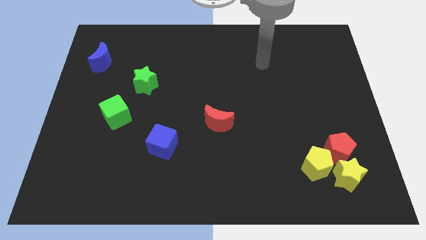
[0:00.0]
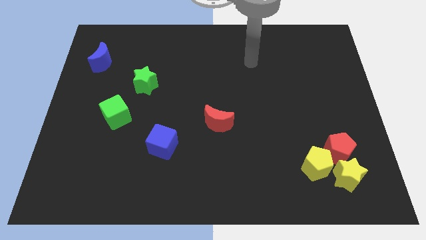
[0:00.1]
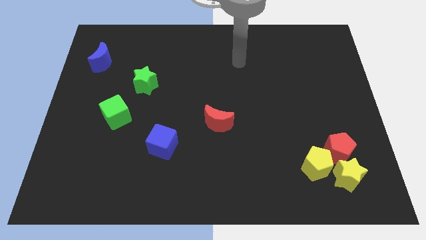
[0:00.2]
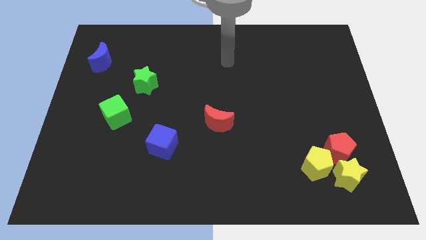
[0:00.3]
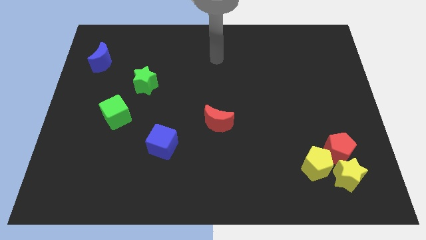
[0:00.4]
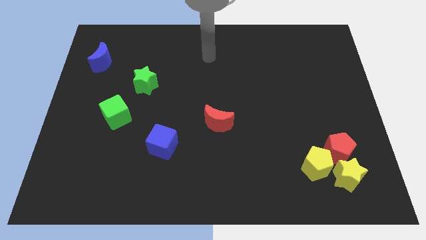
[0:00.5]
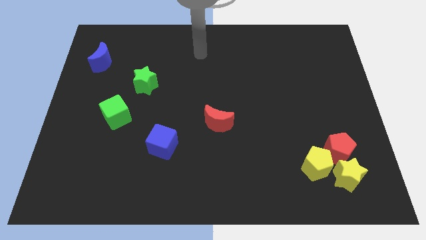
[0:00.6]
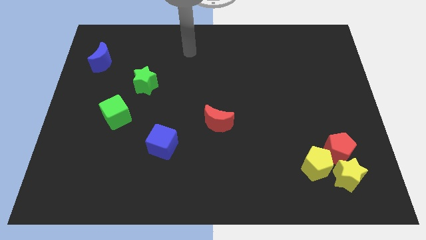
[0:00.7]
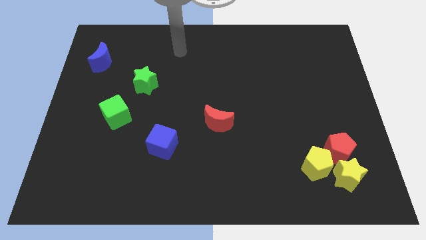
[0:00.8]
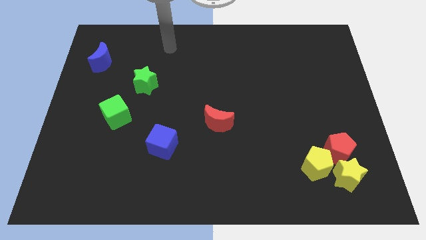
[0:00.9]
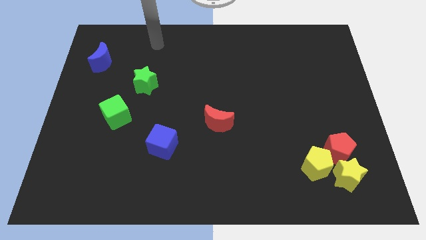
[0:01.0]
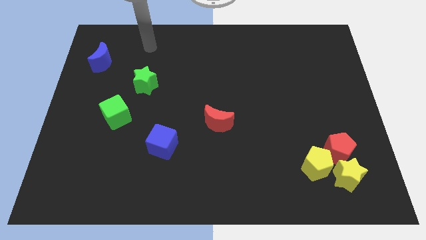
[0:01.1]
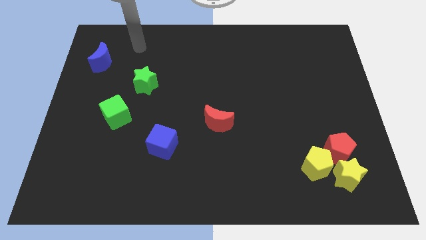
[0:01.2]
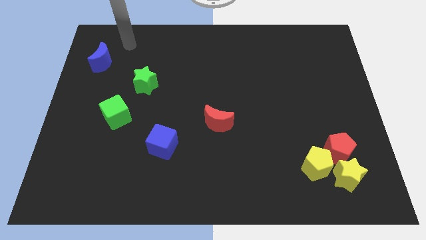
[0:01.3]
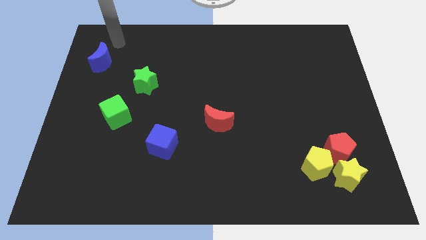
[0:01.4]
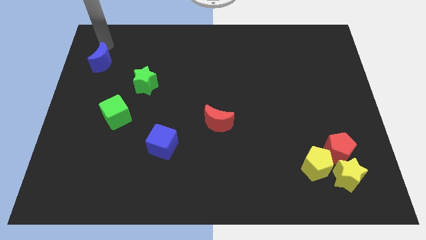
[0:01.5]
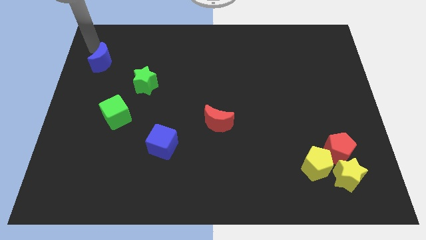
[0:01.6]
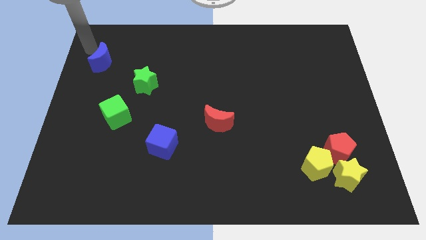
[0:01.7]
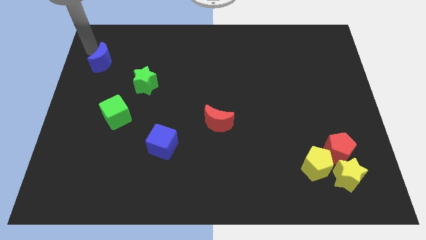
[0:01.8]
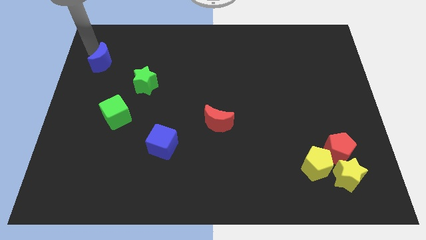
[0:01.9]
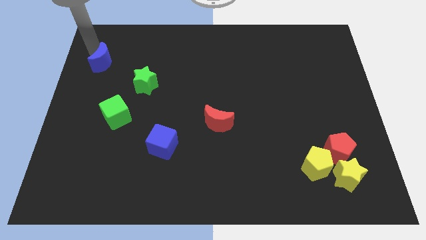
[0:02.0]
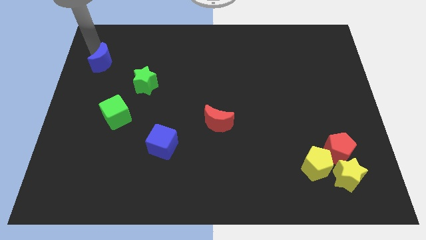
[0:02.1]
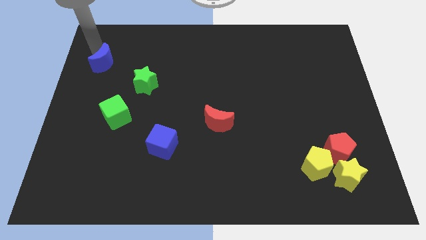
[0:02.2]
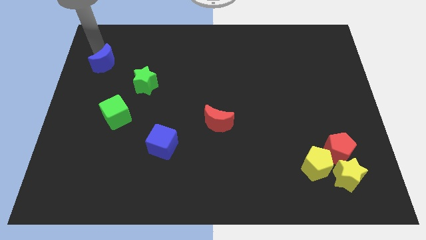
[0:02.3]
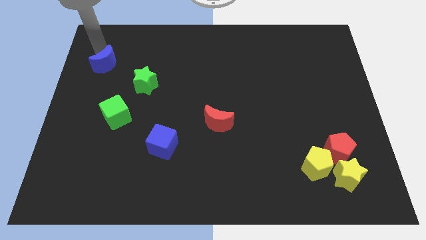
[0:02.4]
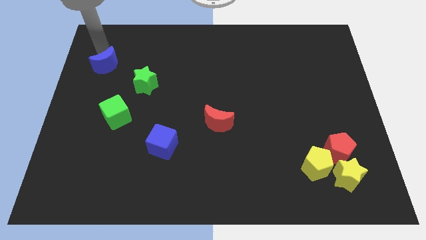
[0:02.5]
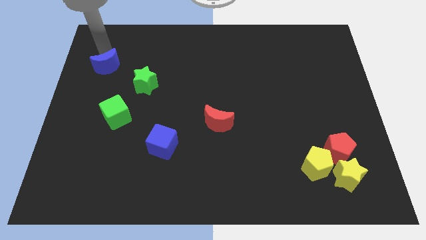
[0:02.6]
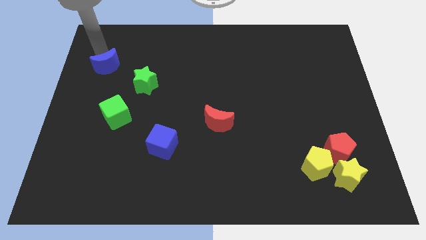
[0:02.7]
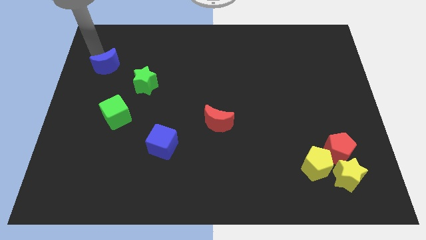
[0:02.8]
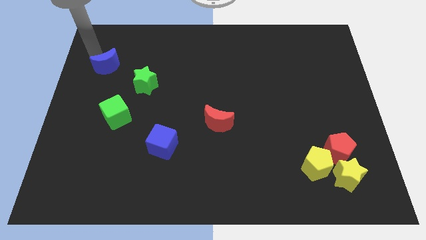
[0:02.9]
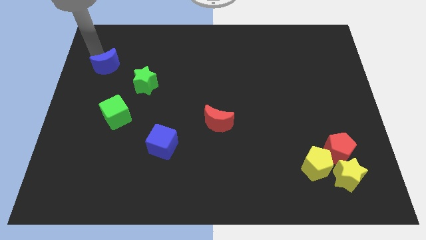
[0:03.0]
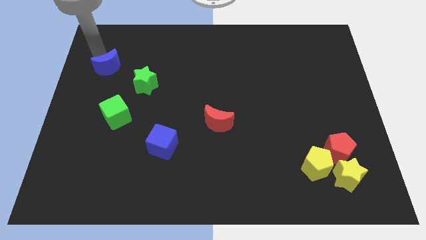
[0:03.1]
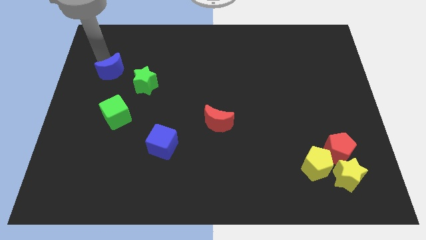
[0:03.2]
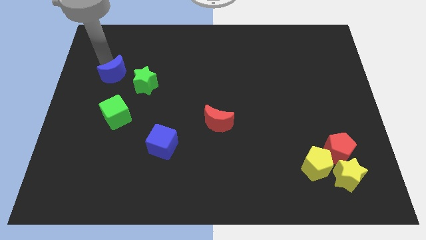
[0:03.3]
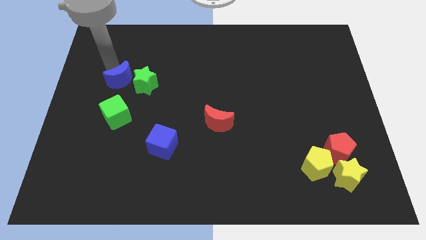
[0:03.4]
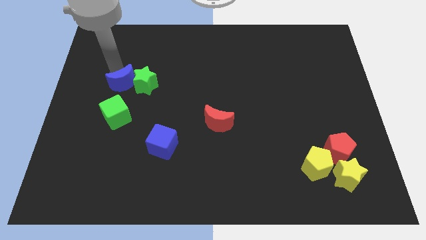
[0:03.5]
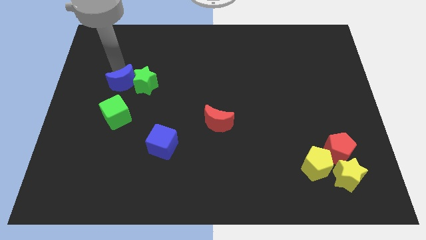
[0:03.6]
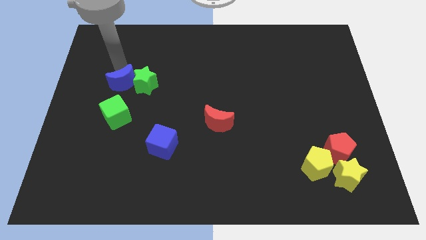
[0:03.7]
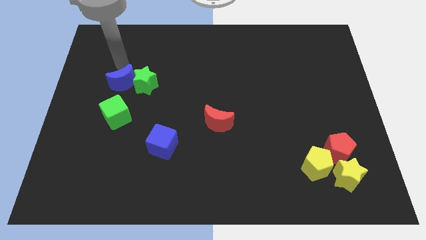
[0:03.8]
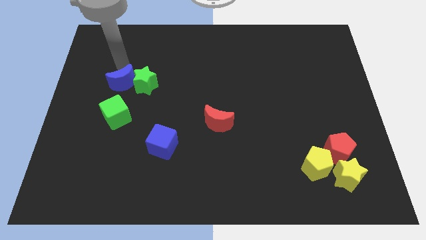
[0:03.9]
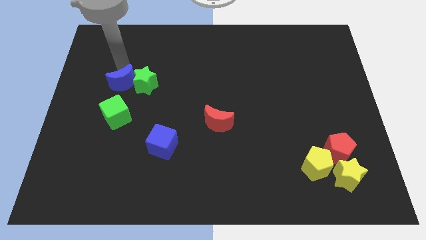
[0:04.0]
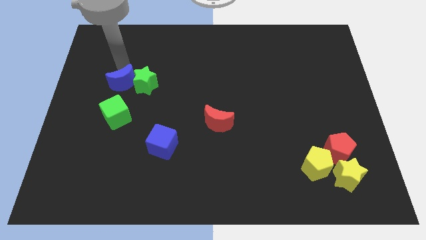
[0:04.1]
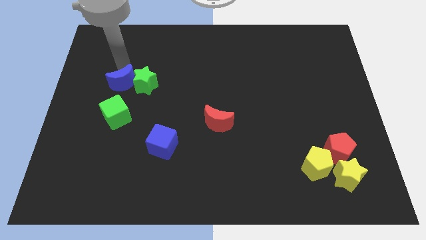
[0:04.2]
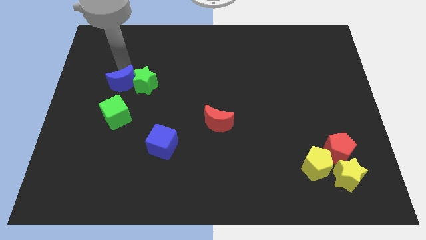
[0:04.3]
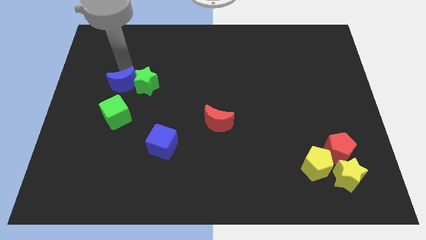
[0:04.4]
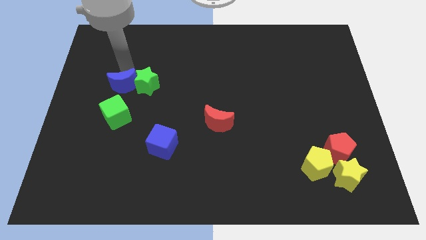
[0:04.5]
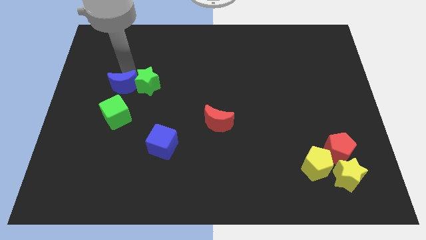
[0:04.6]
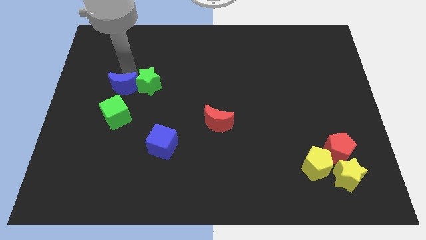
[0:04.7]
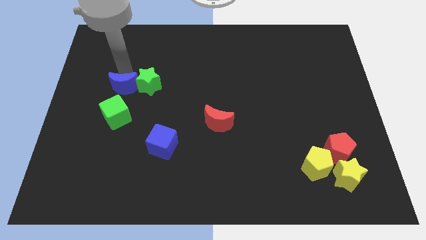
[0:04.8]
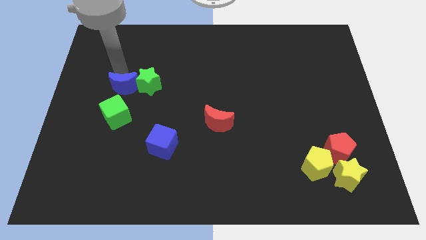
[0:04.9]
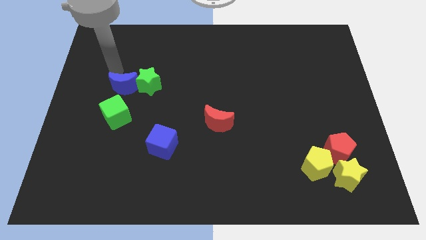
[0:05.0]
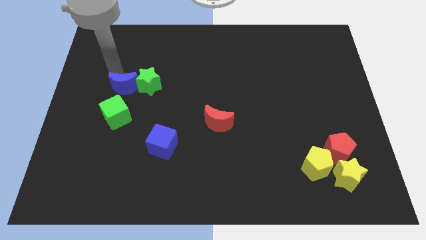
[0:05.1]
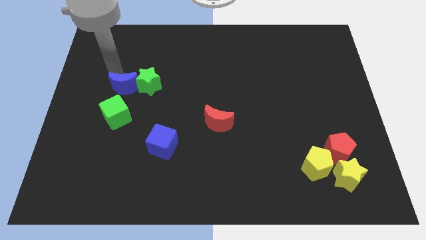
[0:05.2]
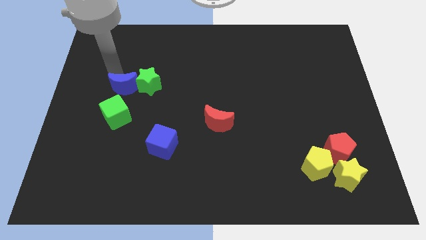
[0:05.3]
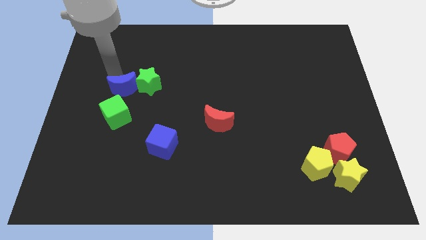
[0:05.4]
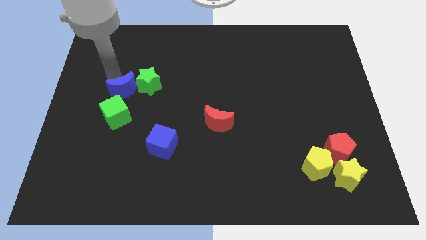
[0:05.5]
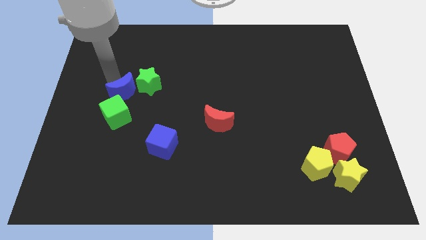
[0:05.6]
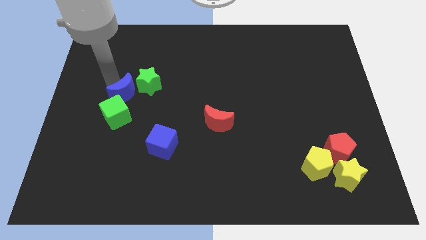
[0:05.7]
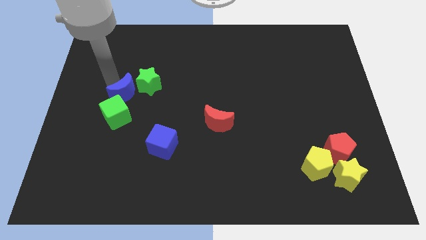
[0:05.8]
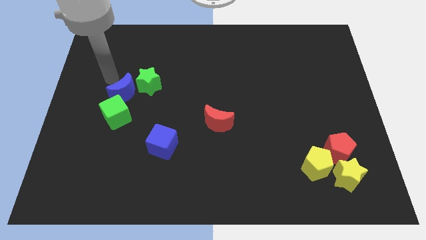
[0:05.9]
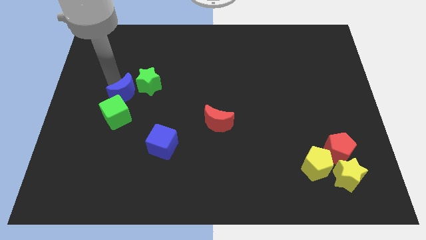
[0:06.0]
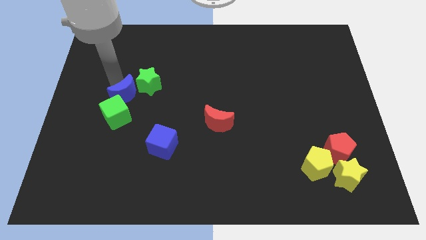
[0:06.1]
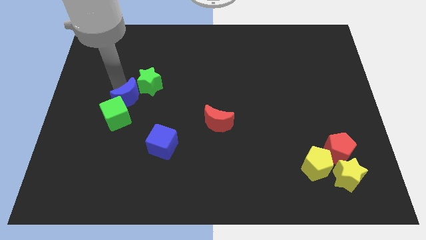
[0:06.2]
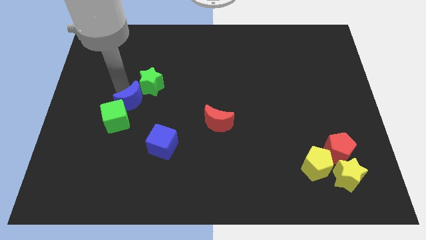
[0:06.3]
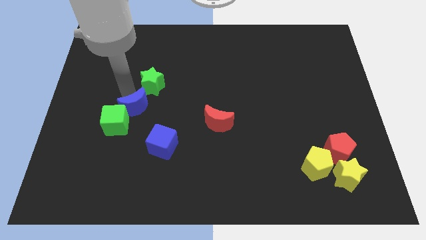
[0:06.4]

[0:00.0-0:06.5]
slide the blue moon to the top left side of the blue cube

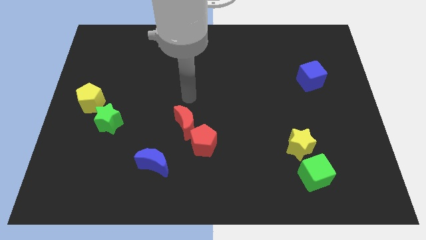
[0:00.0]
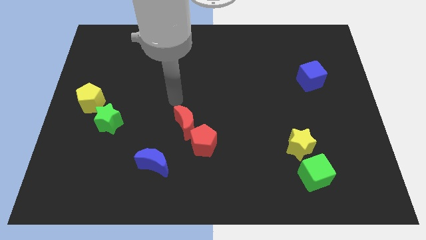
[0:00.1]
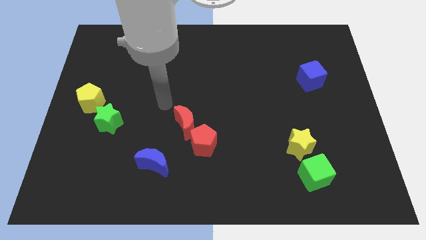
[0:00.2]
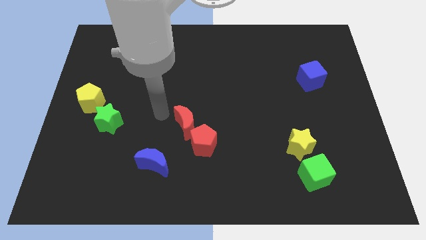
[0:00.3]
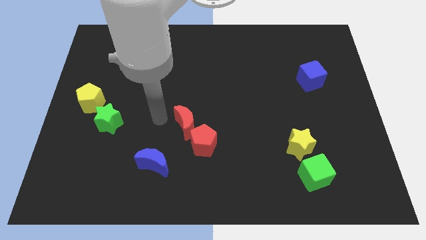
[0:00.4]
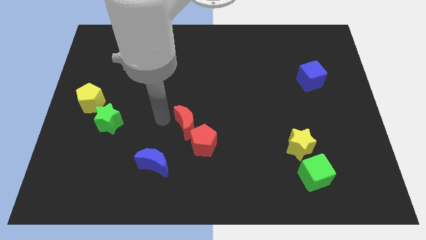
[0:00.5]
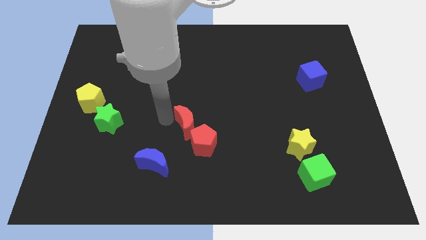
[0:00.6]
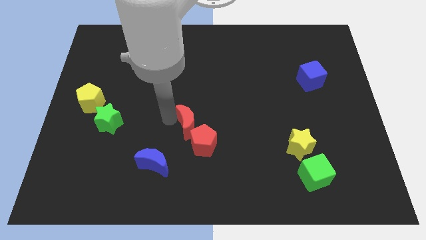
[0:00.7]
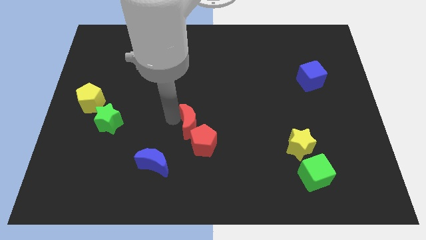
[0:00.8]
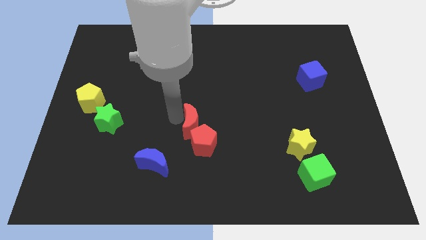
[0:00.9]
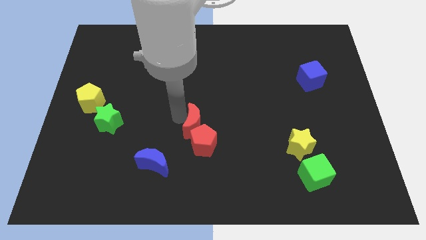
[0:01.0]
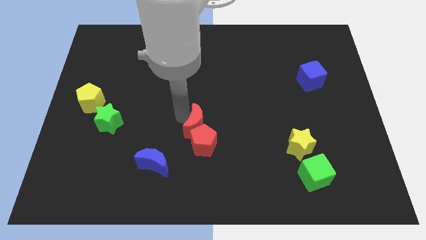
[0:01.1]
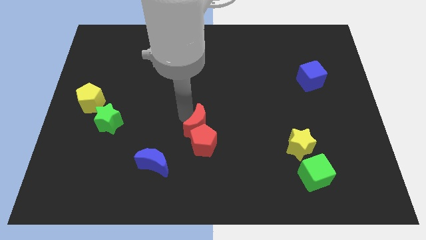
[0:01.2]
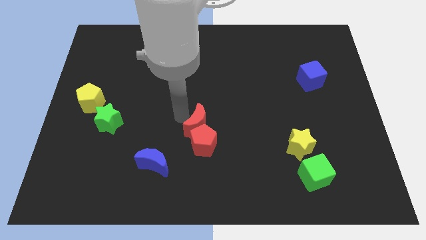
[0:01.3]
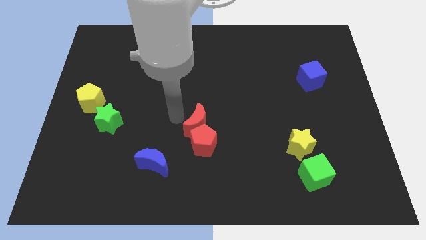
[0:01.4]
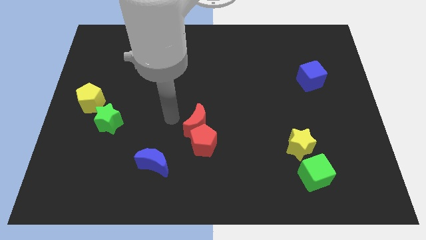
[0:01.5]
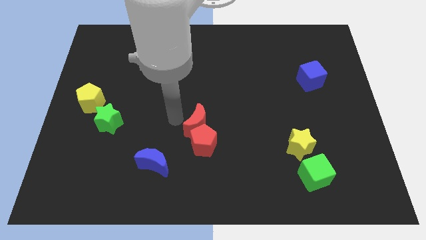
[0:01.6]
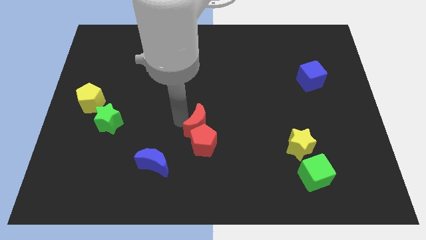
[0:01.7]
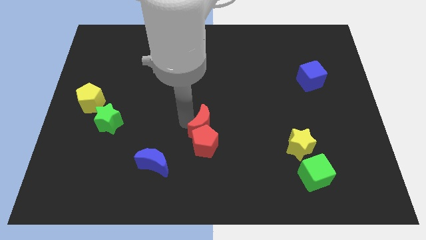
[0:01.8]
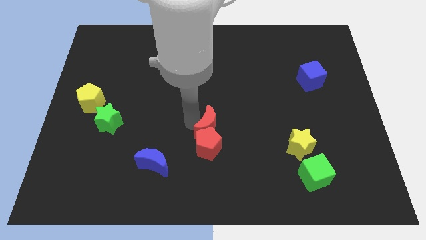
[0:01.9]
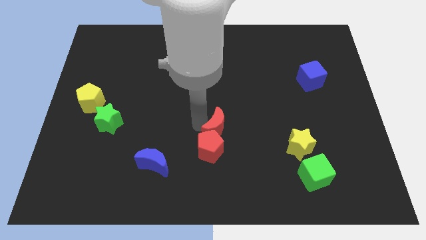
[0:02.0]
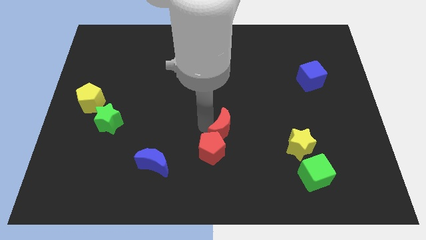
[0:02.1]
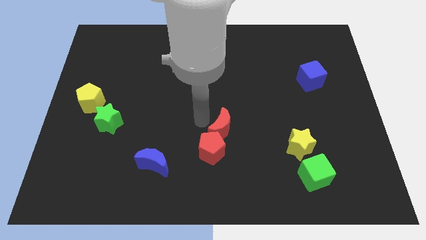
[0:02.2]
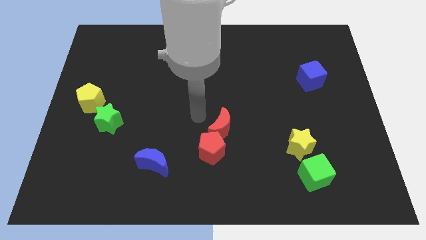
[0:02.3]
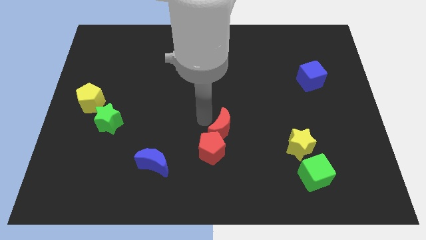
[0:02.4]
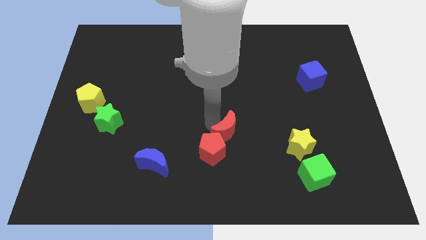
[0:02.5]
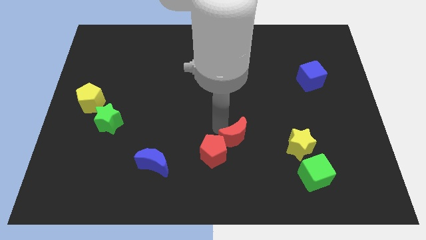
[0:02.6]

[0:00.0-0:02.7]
push the red moon to the right of the red pentagon
